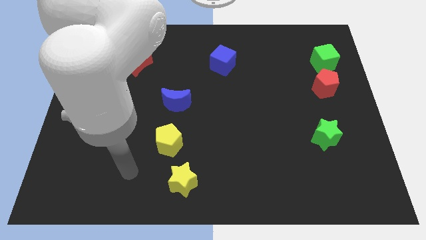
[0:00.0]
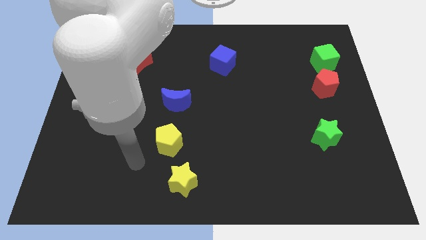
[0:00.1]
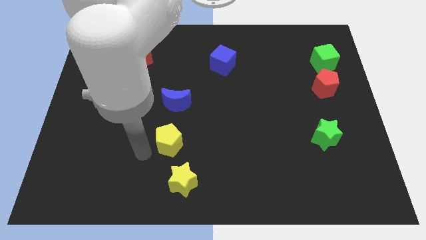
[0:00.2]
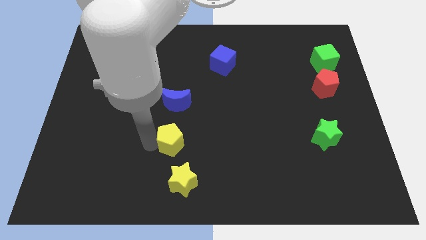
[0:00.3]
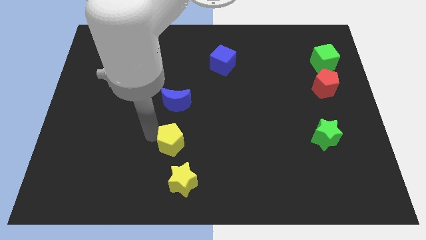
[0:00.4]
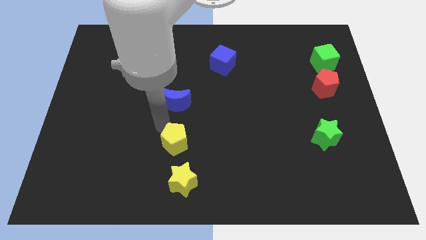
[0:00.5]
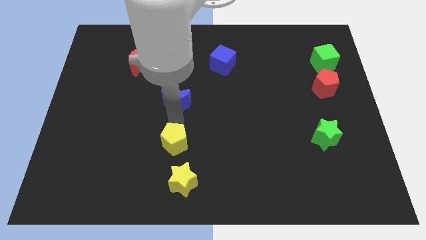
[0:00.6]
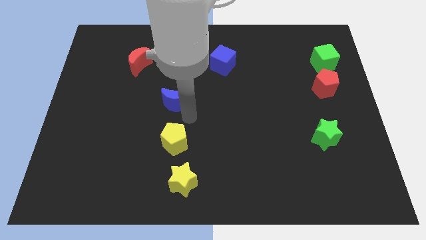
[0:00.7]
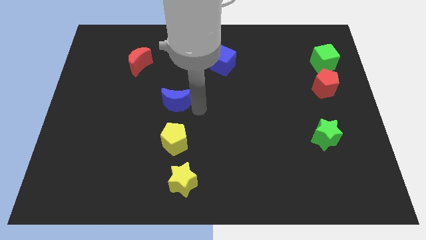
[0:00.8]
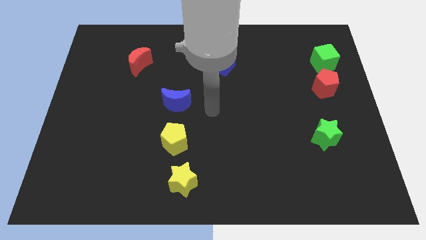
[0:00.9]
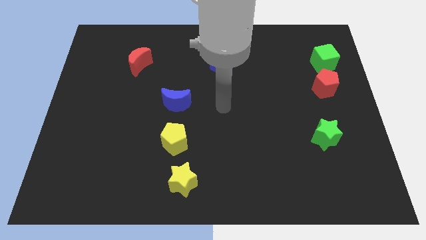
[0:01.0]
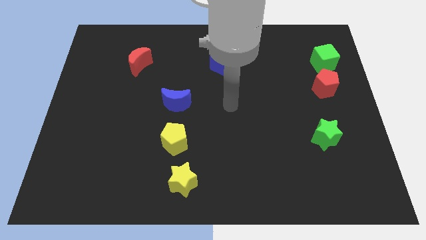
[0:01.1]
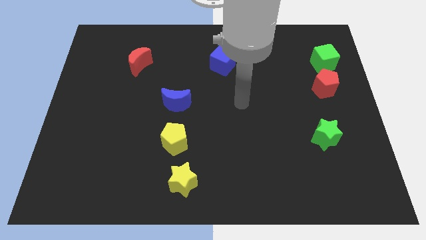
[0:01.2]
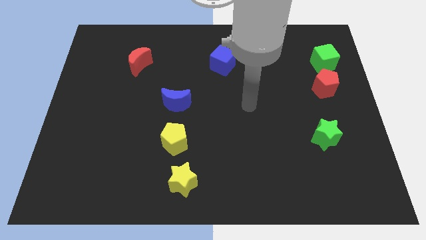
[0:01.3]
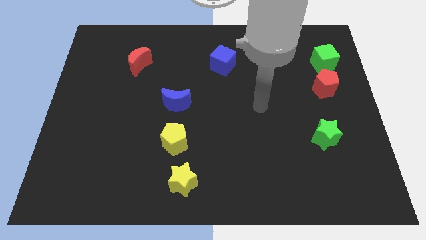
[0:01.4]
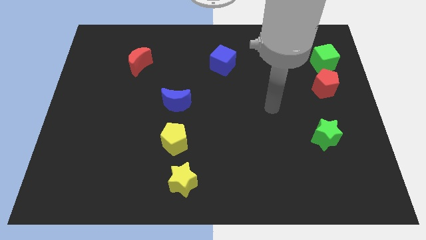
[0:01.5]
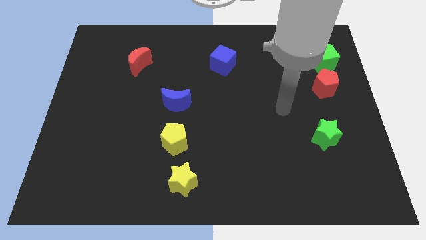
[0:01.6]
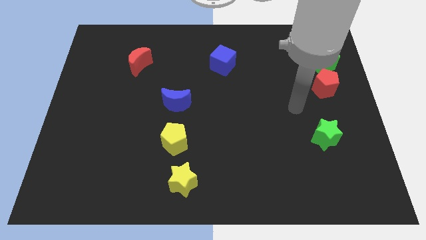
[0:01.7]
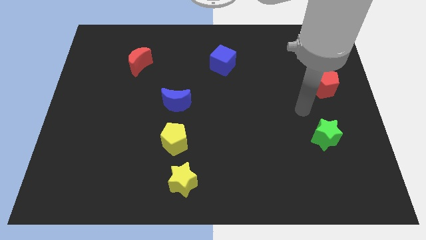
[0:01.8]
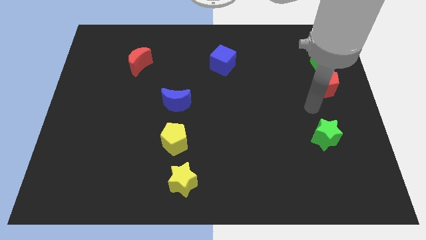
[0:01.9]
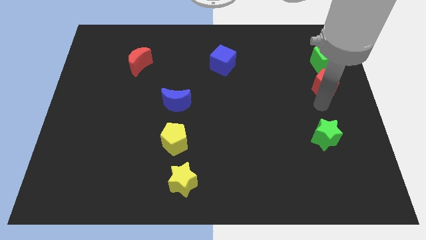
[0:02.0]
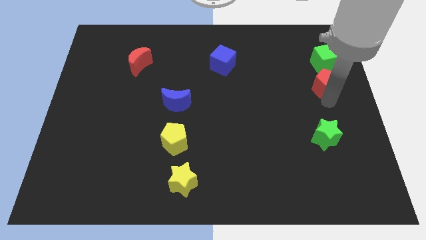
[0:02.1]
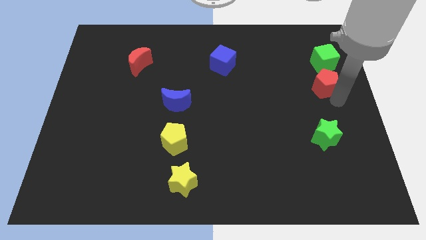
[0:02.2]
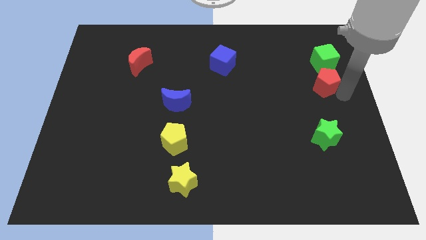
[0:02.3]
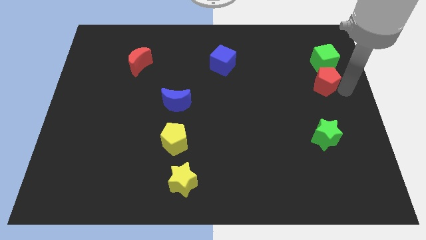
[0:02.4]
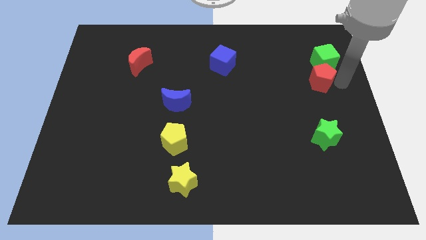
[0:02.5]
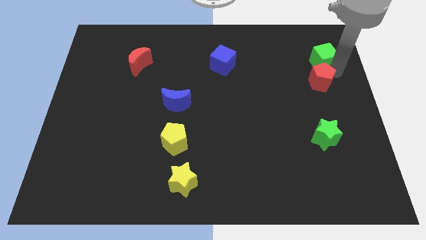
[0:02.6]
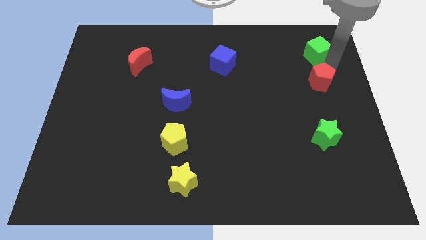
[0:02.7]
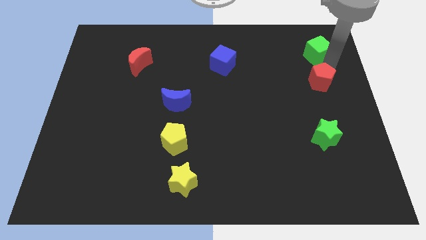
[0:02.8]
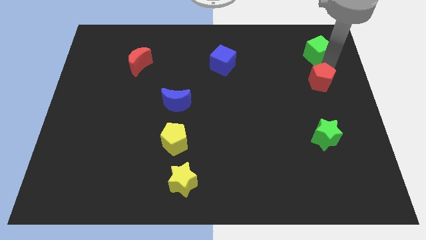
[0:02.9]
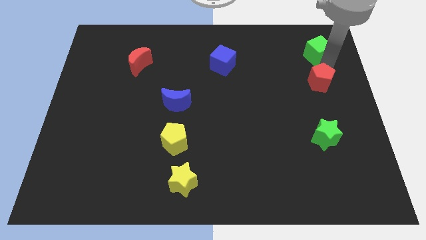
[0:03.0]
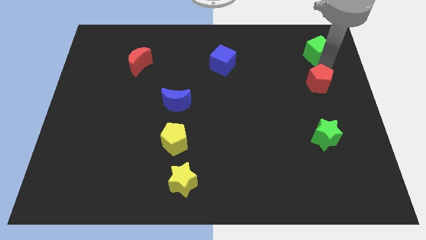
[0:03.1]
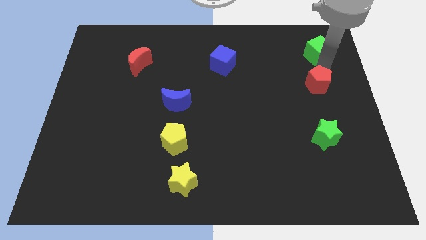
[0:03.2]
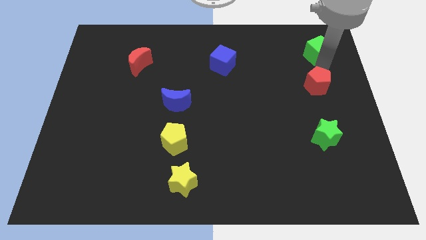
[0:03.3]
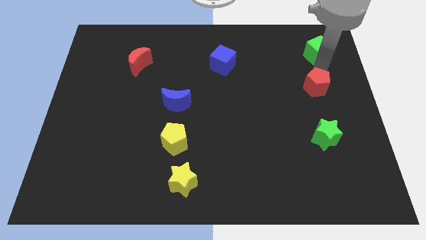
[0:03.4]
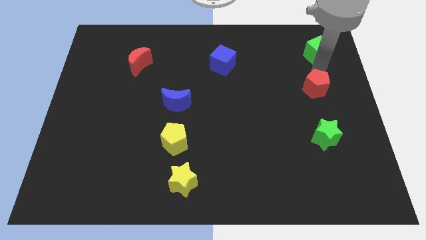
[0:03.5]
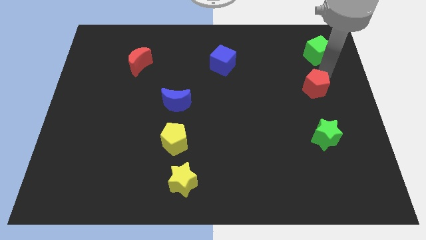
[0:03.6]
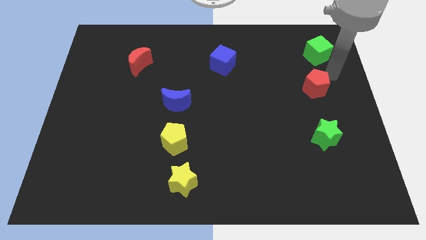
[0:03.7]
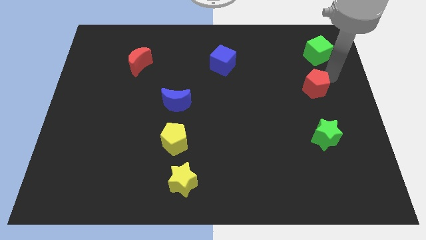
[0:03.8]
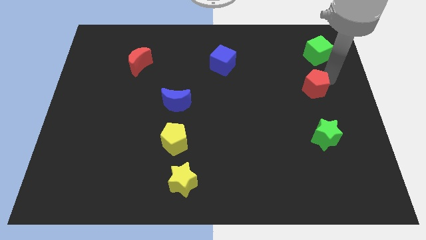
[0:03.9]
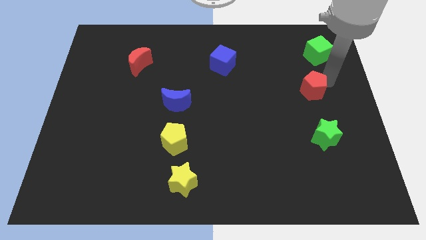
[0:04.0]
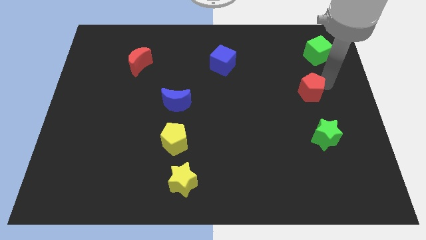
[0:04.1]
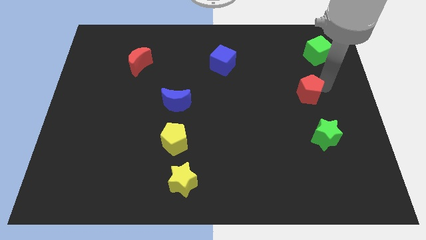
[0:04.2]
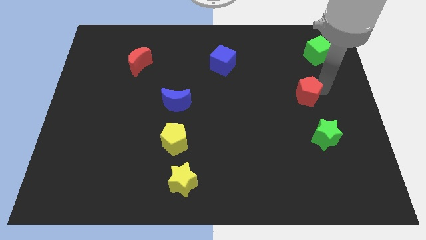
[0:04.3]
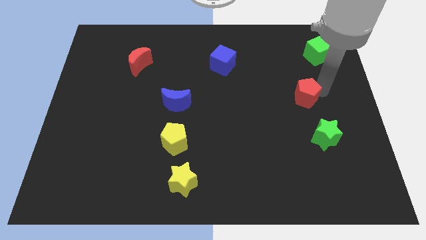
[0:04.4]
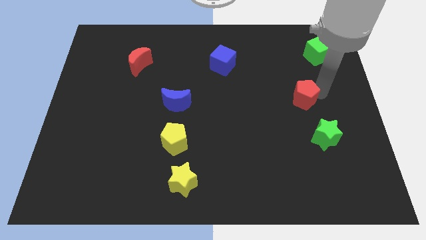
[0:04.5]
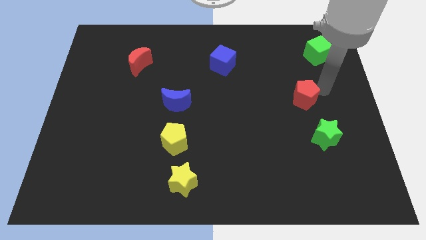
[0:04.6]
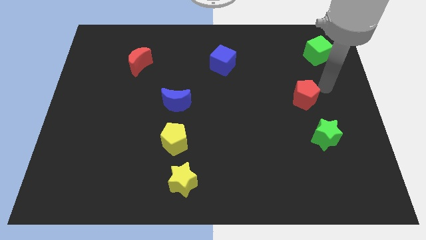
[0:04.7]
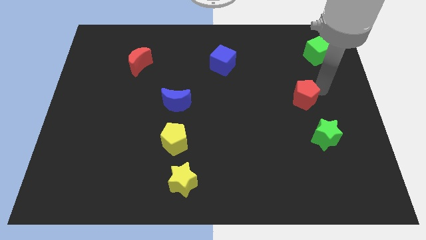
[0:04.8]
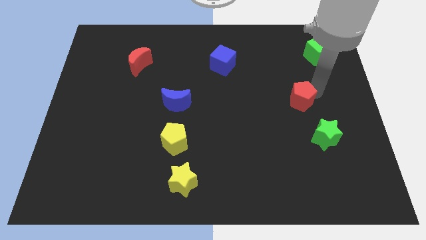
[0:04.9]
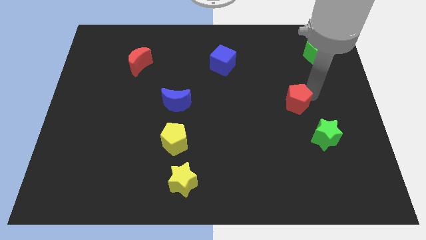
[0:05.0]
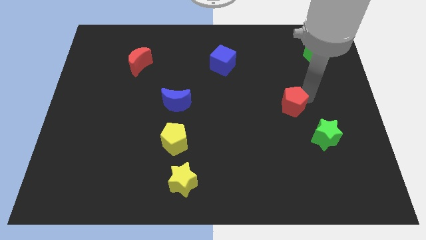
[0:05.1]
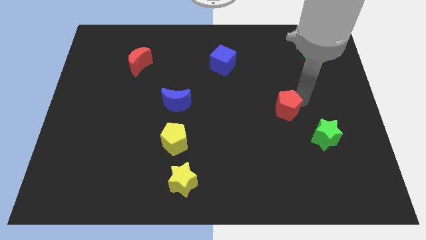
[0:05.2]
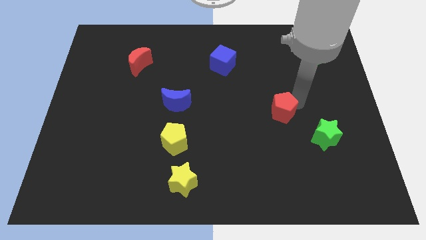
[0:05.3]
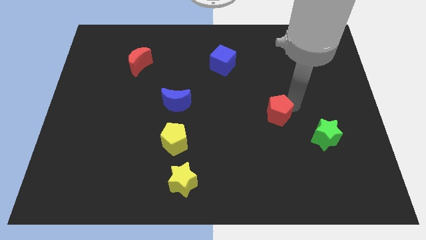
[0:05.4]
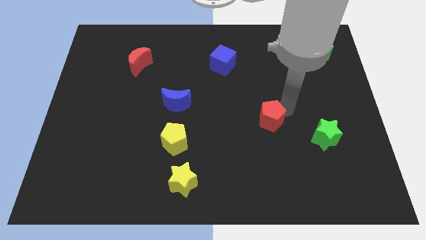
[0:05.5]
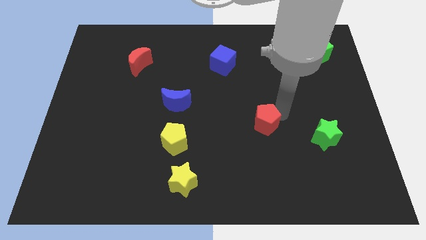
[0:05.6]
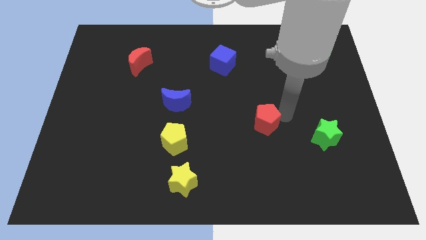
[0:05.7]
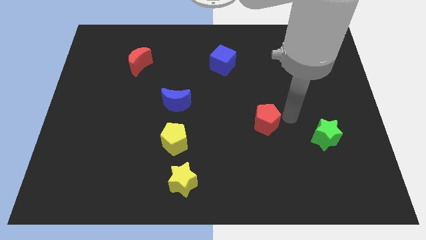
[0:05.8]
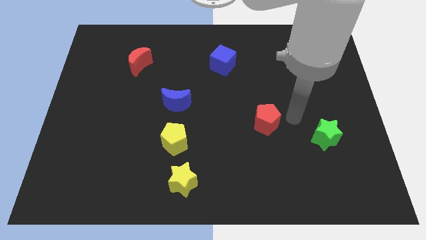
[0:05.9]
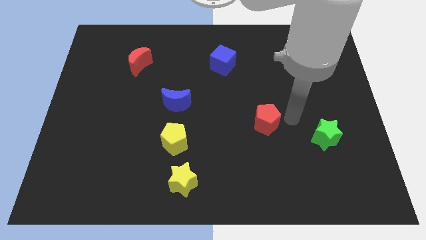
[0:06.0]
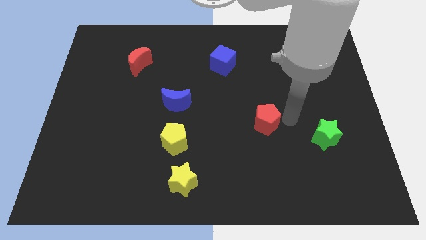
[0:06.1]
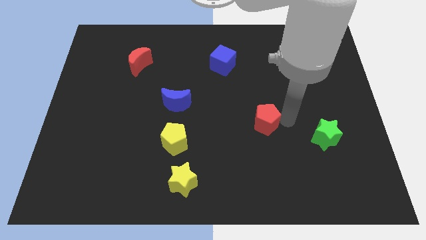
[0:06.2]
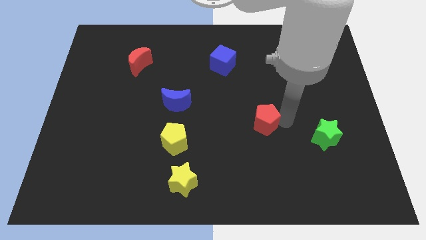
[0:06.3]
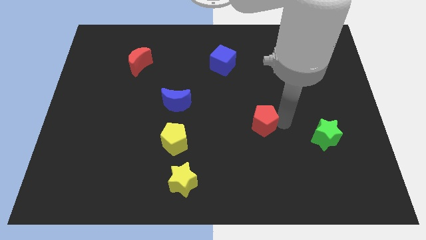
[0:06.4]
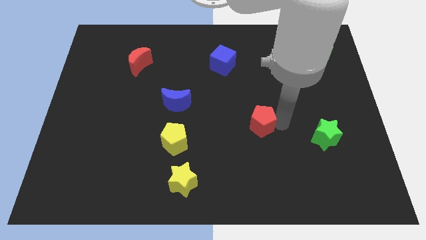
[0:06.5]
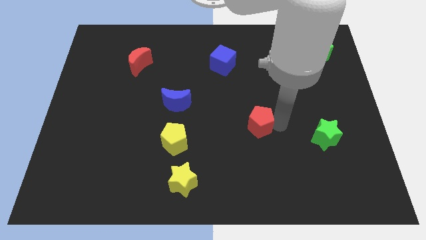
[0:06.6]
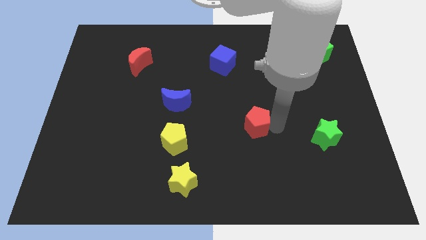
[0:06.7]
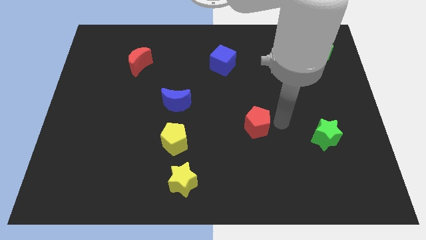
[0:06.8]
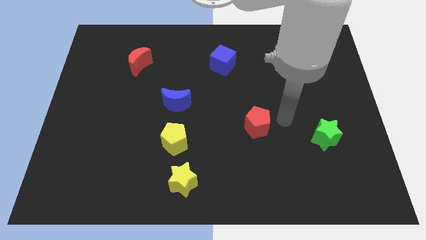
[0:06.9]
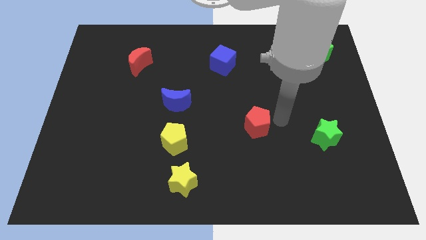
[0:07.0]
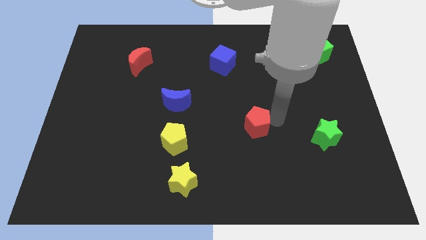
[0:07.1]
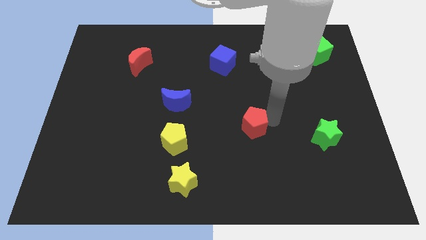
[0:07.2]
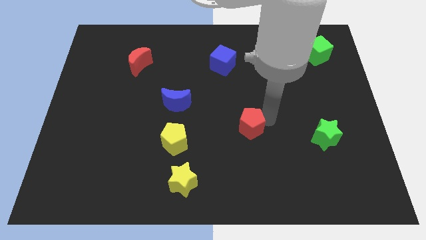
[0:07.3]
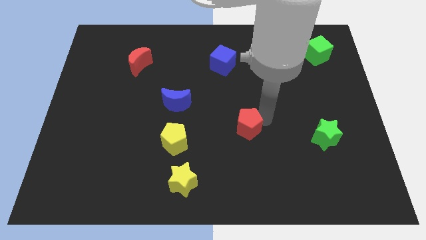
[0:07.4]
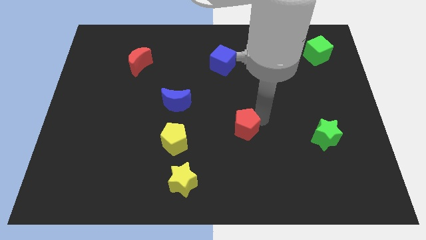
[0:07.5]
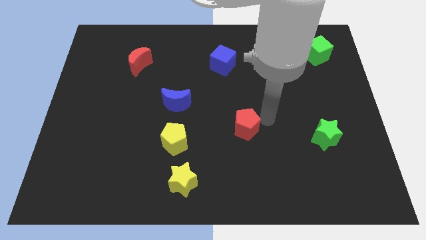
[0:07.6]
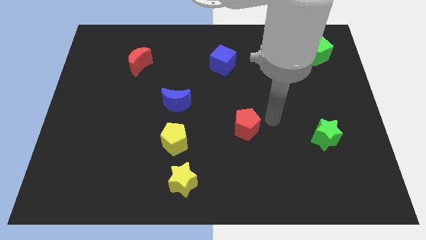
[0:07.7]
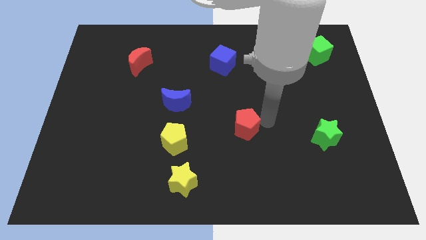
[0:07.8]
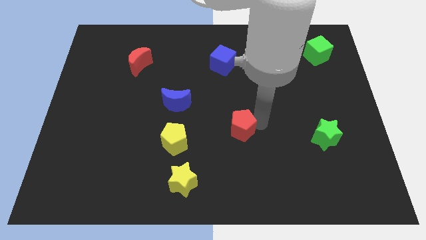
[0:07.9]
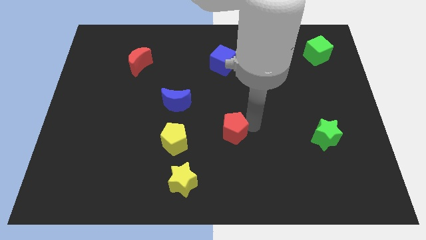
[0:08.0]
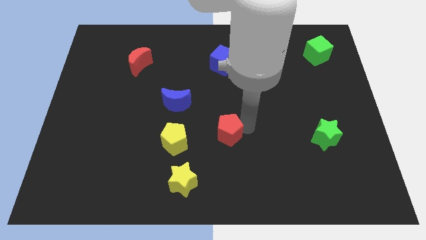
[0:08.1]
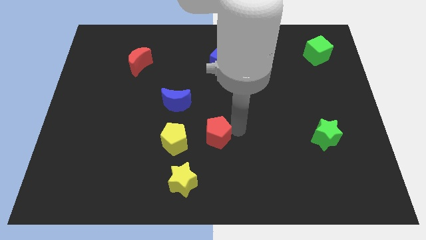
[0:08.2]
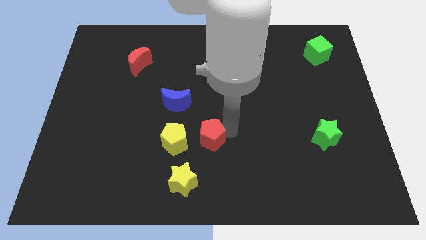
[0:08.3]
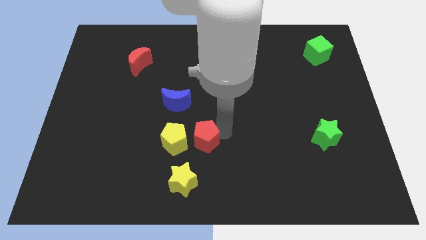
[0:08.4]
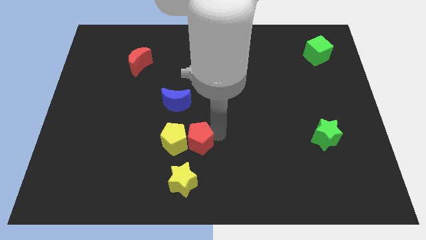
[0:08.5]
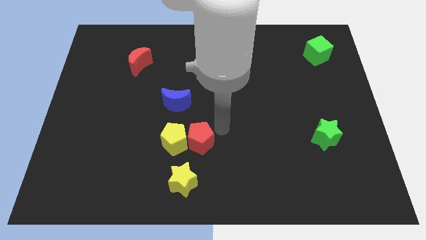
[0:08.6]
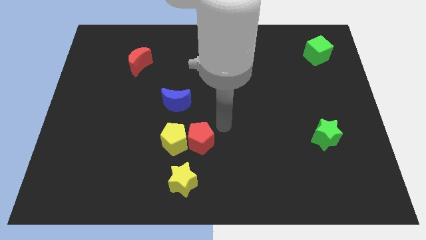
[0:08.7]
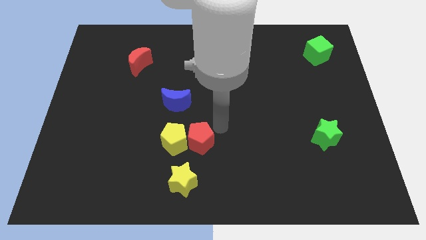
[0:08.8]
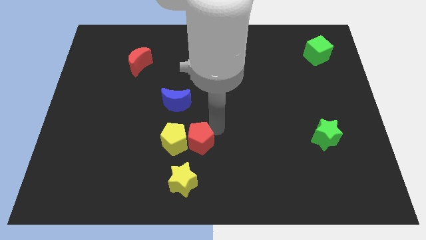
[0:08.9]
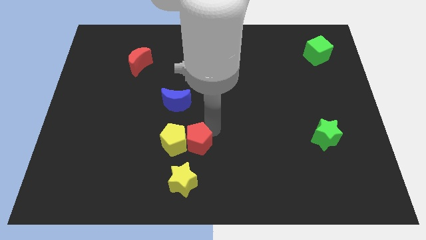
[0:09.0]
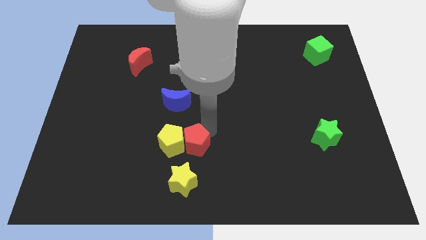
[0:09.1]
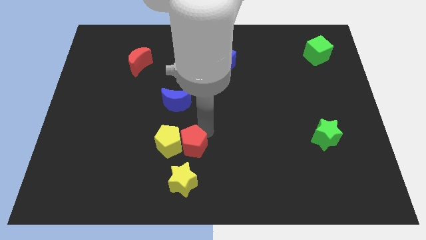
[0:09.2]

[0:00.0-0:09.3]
push the red pentagon to the bottom of the blue moon
